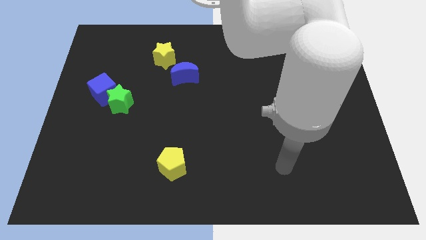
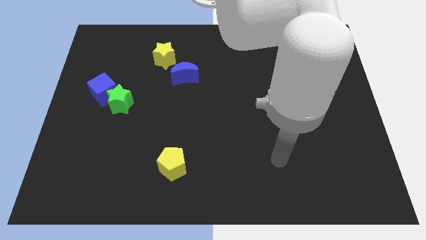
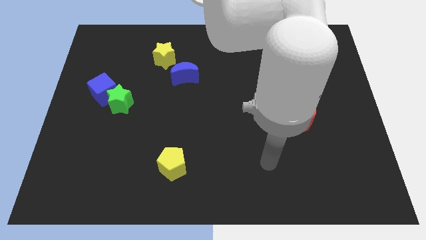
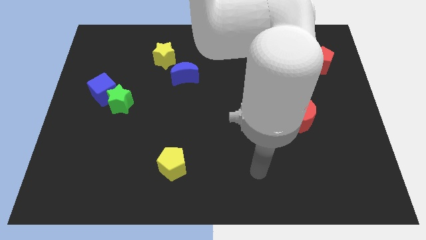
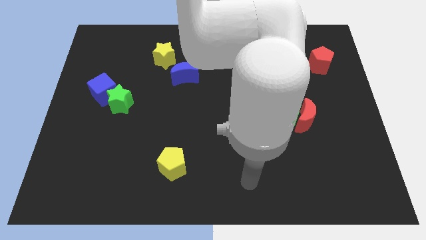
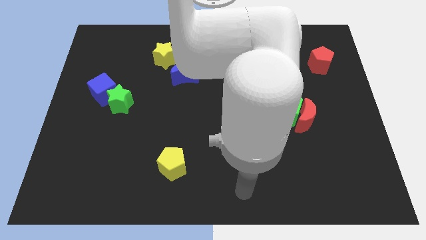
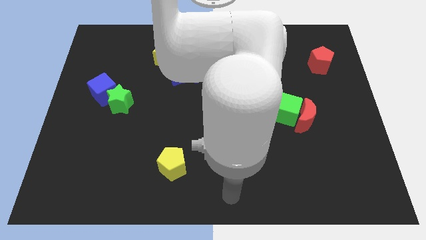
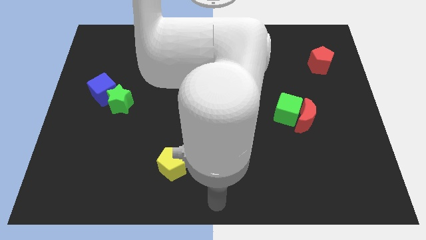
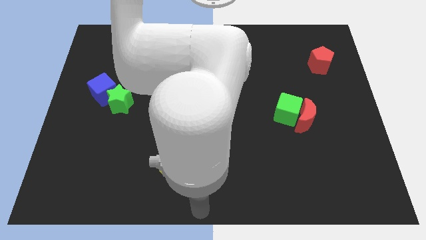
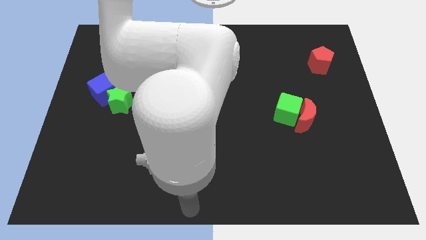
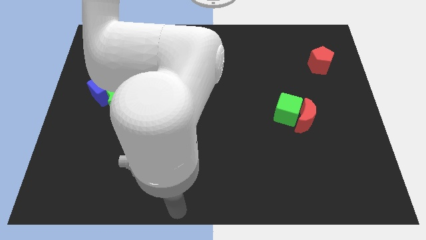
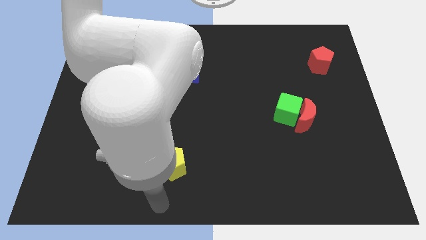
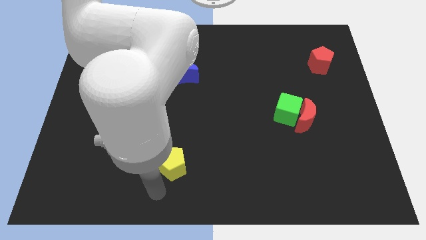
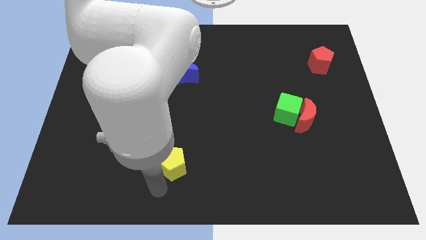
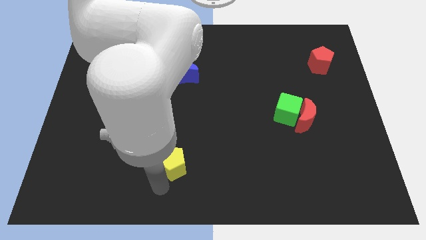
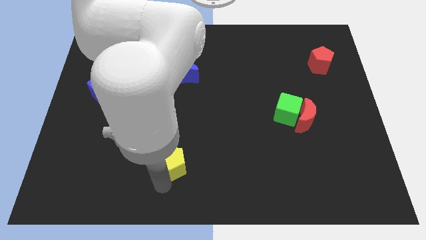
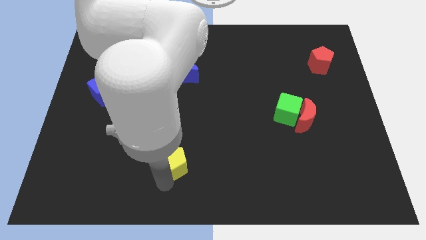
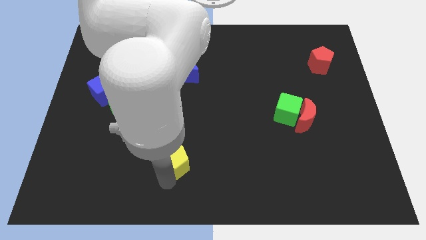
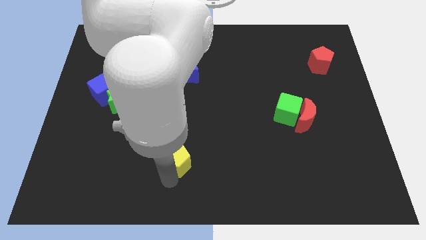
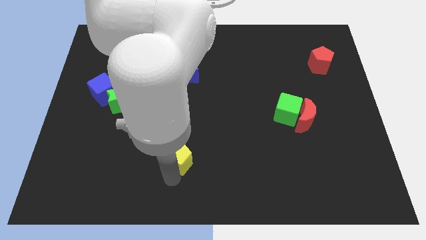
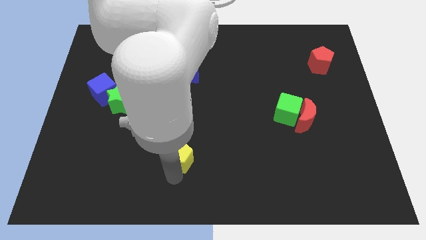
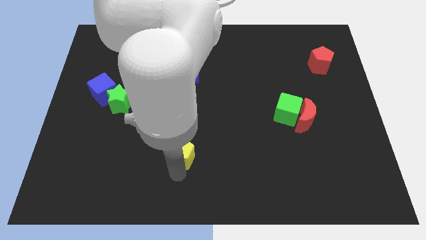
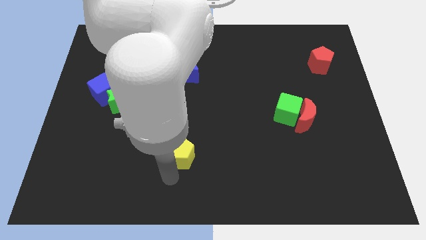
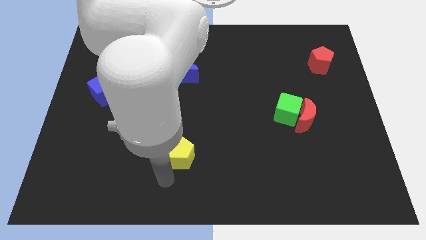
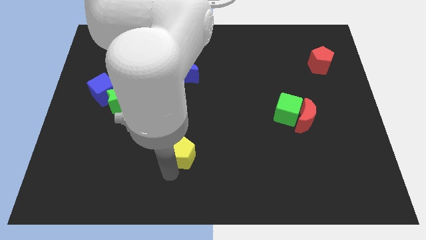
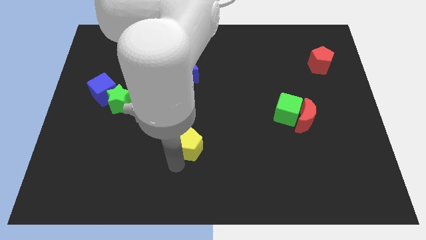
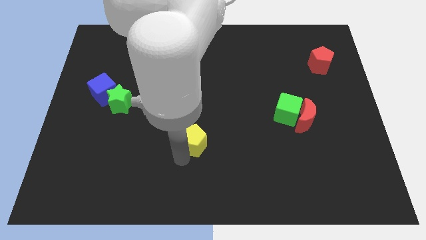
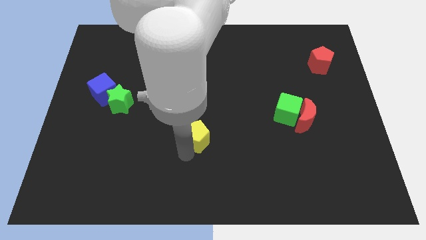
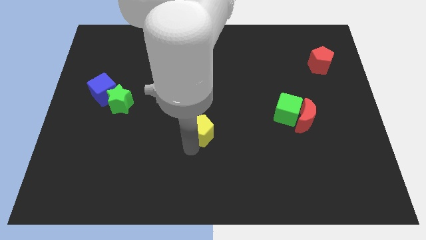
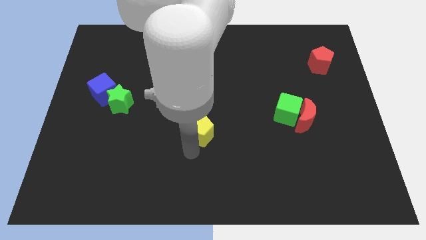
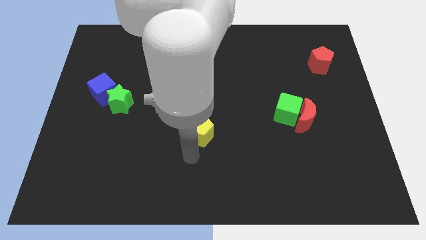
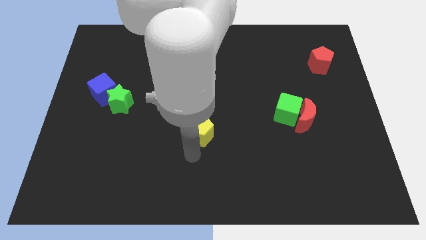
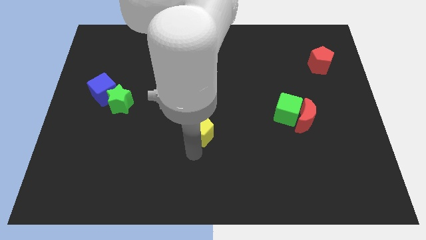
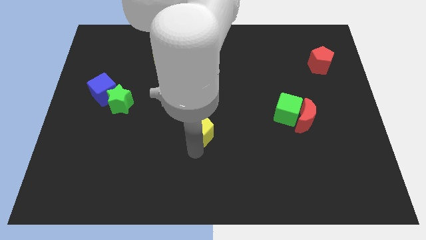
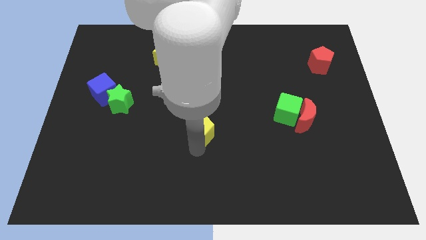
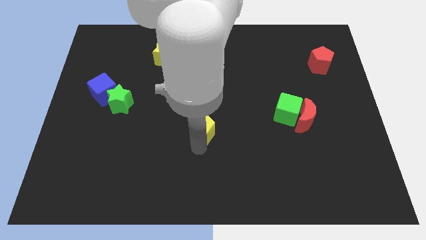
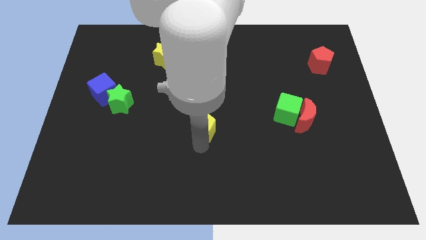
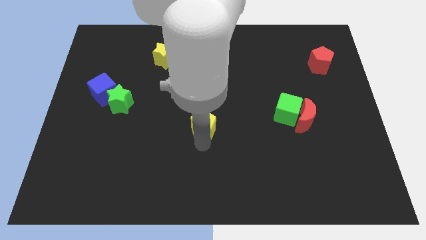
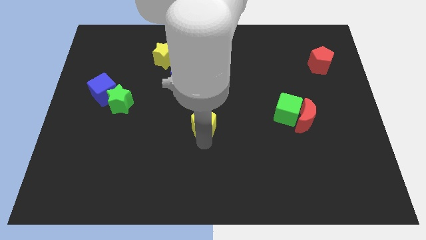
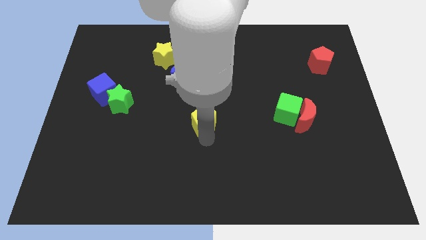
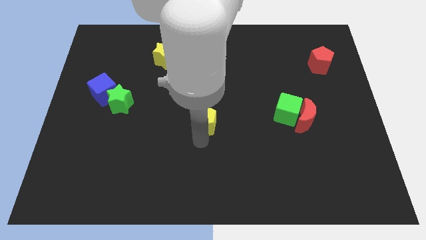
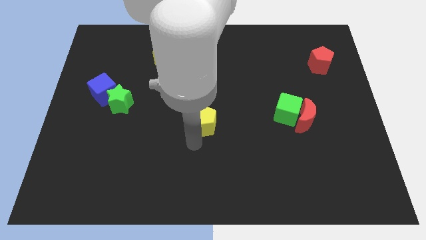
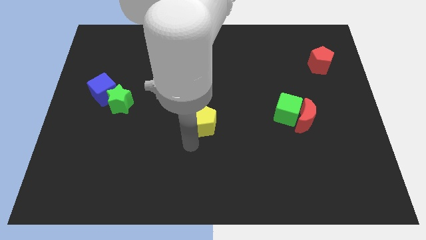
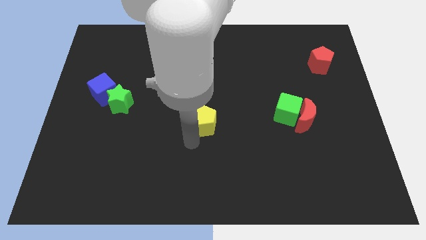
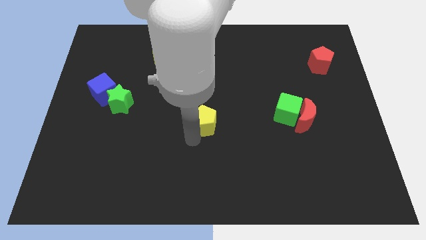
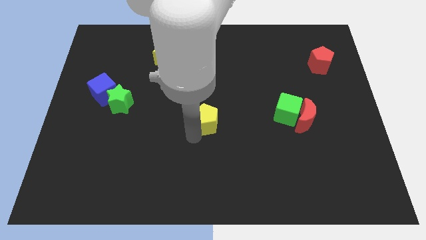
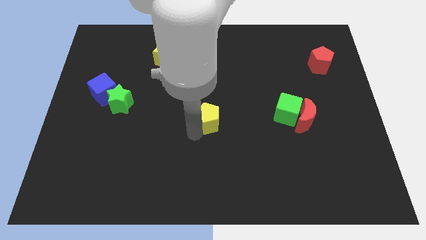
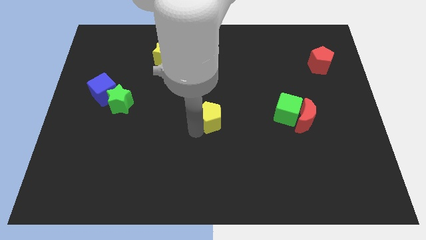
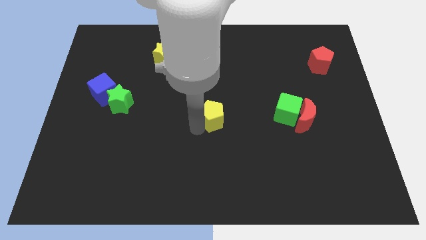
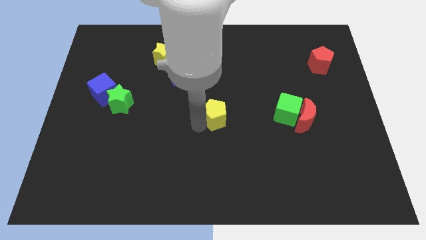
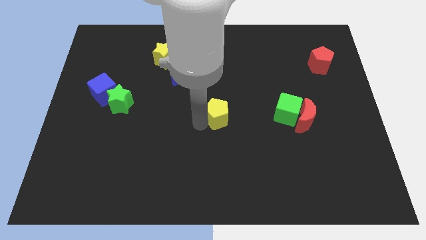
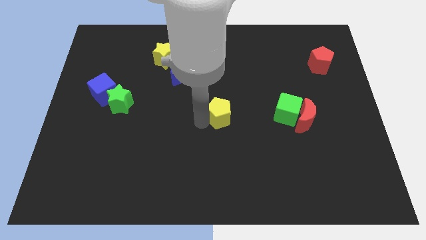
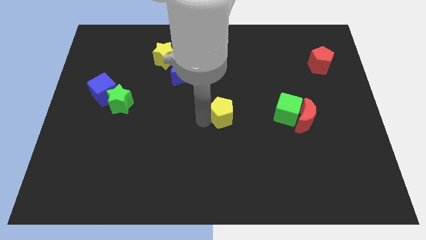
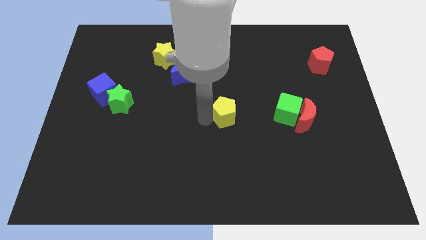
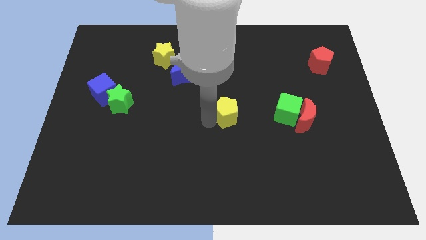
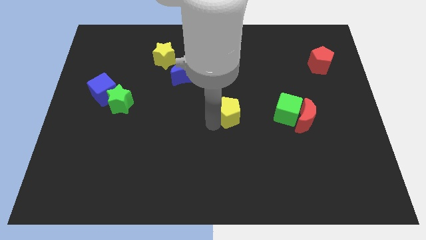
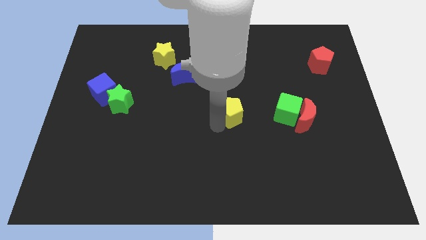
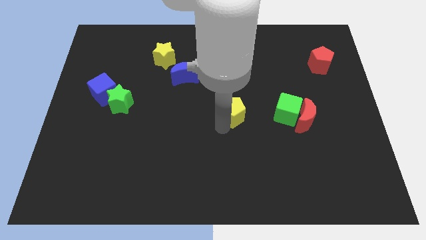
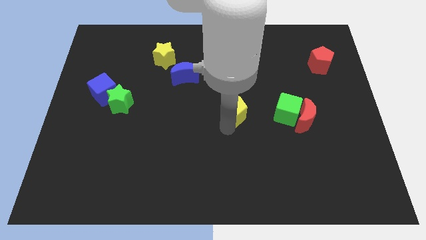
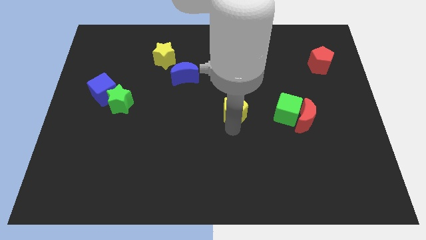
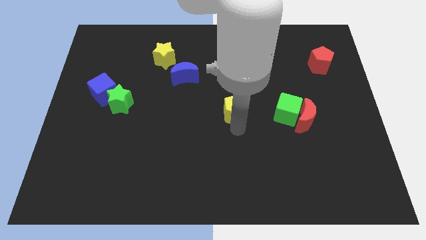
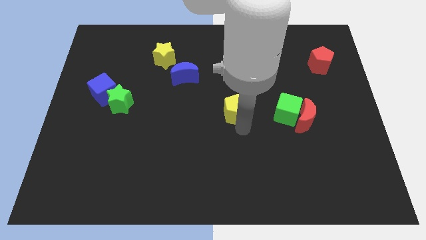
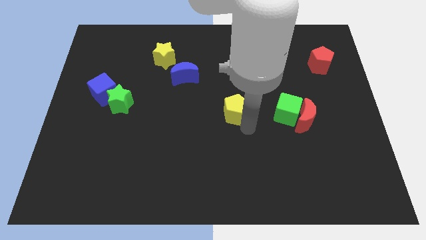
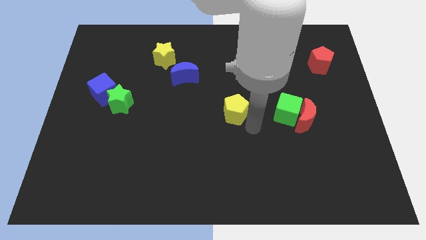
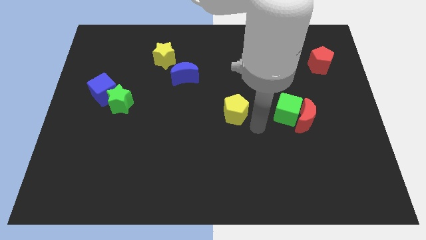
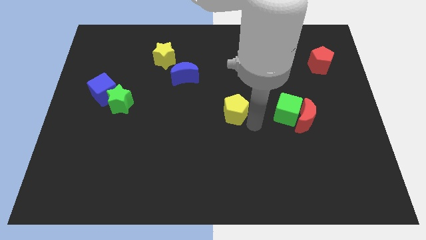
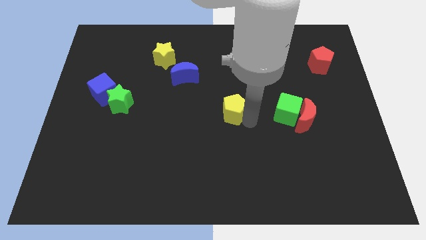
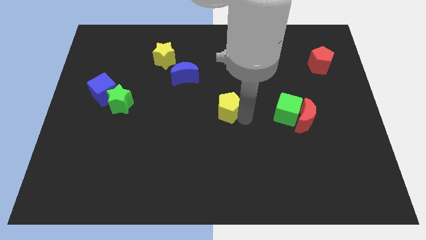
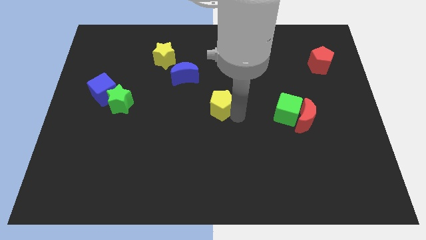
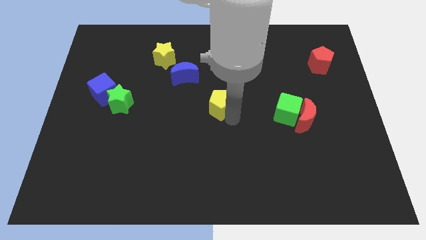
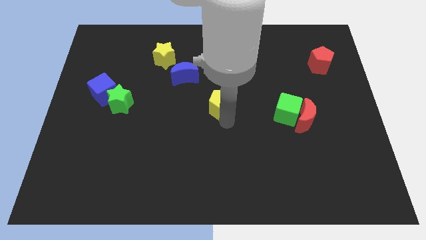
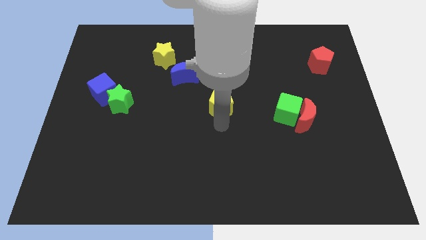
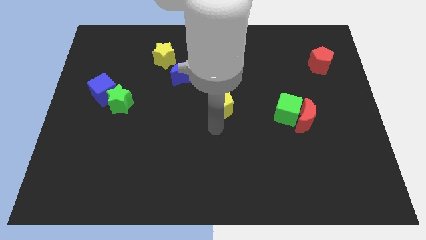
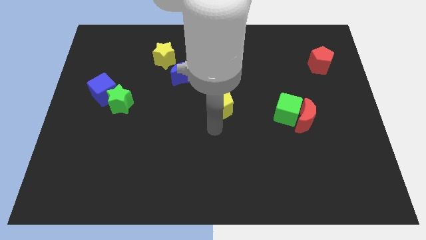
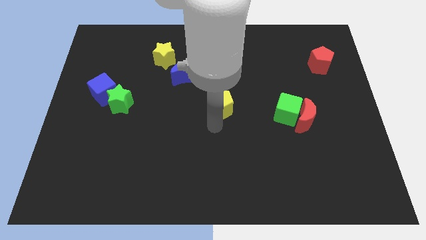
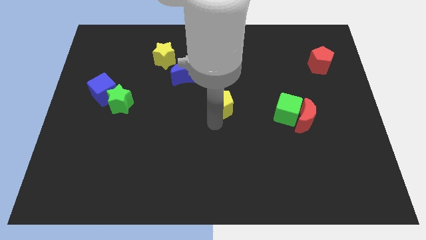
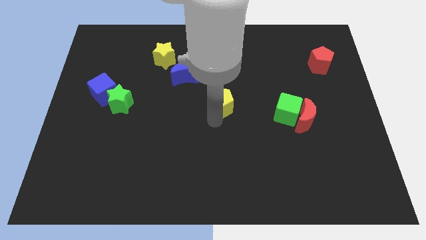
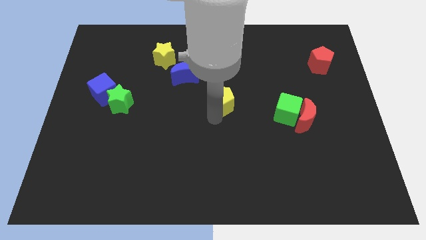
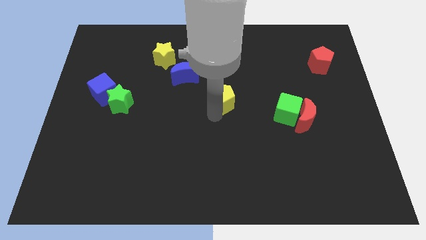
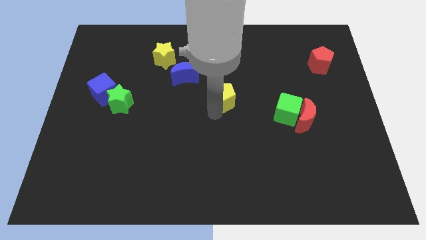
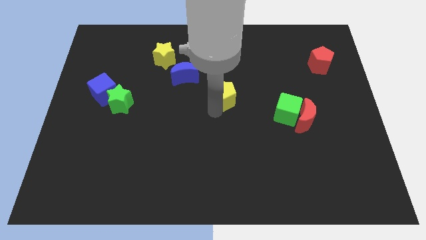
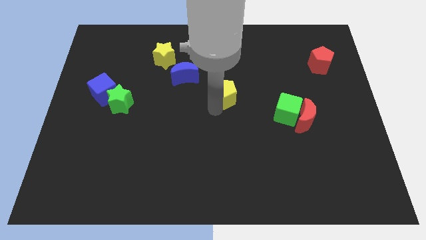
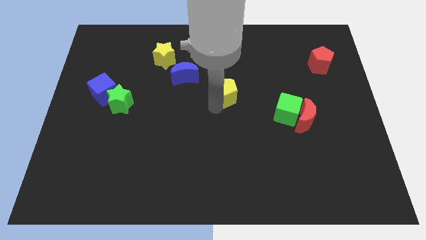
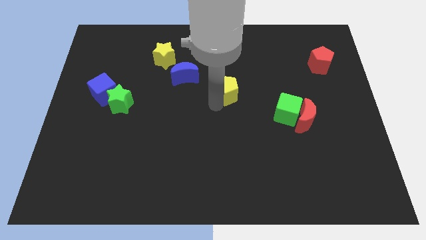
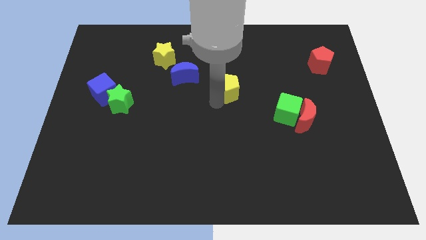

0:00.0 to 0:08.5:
push the yellow pentagon right of the blue moon
